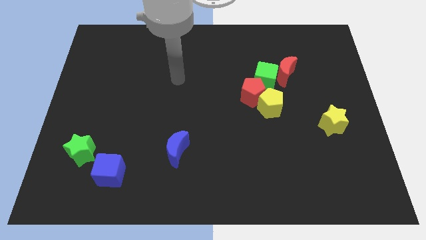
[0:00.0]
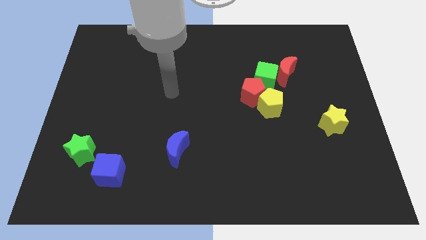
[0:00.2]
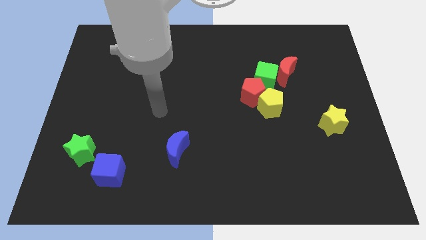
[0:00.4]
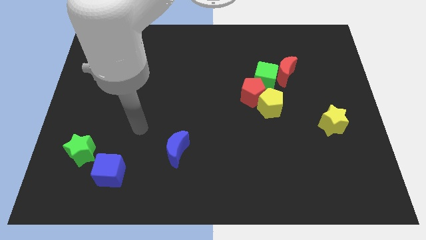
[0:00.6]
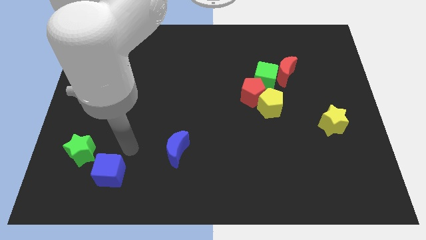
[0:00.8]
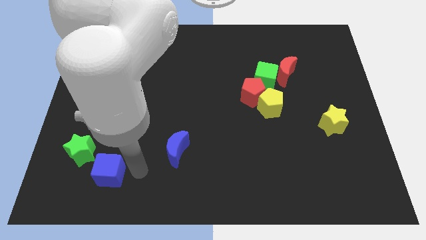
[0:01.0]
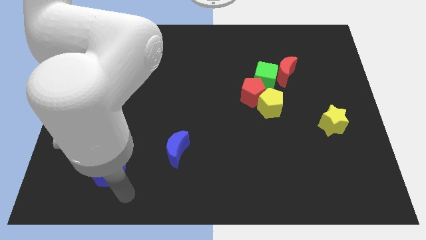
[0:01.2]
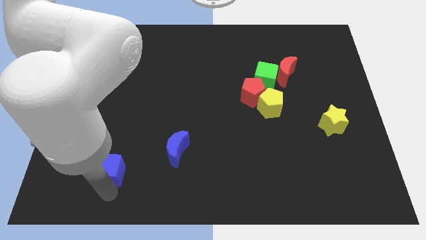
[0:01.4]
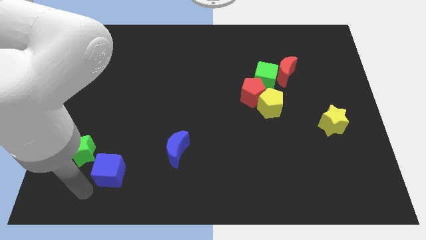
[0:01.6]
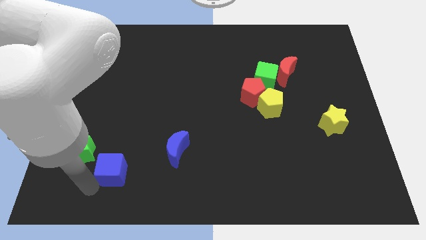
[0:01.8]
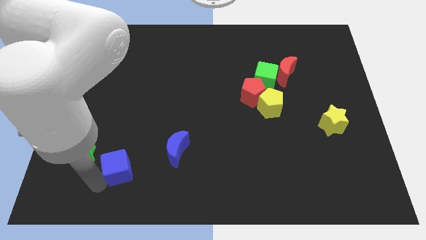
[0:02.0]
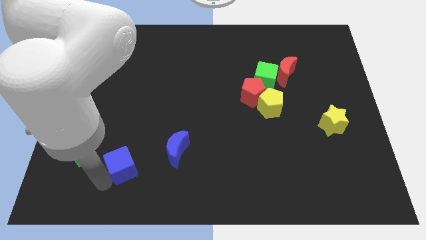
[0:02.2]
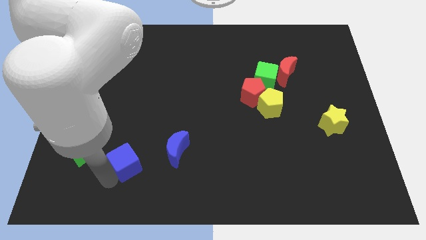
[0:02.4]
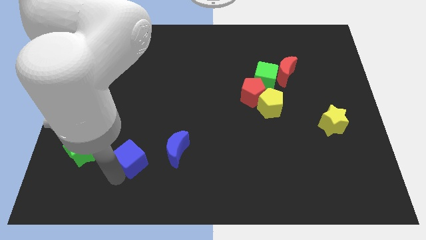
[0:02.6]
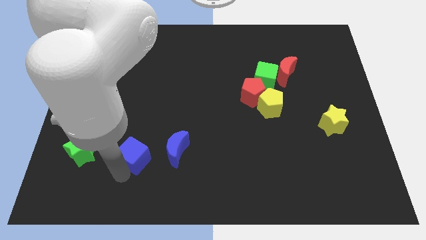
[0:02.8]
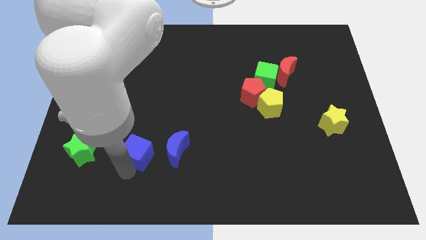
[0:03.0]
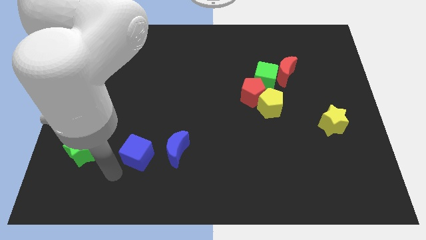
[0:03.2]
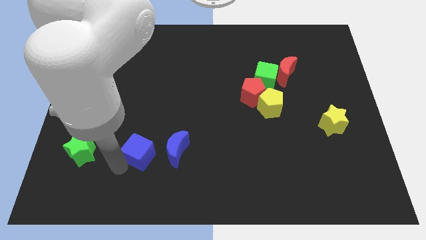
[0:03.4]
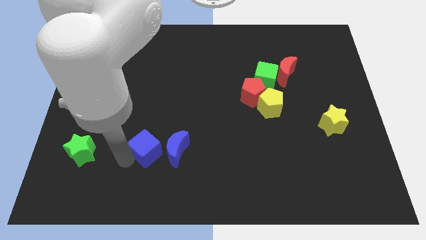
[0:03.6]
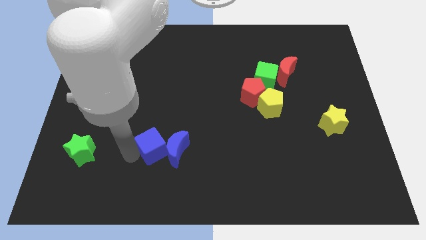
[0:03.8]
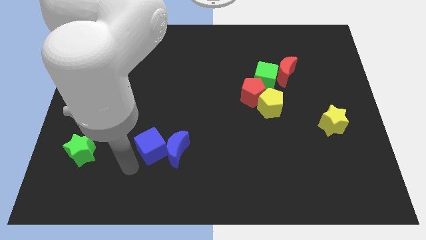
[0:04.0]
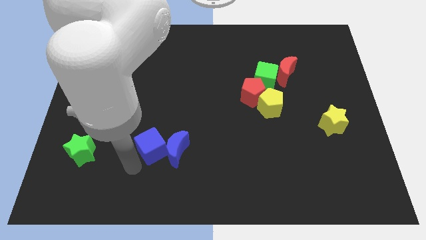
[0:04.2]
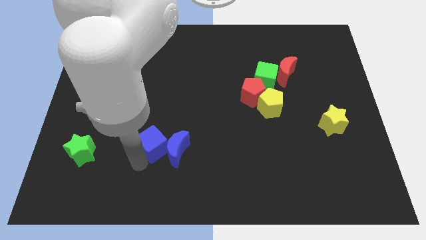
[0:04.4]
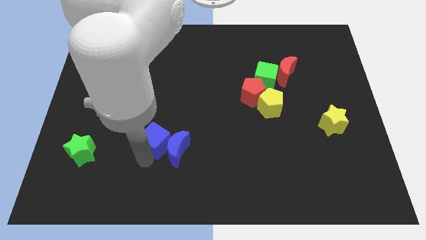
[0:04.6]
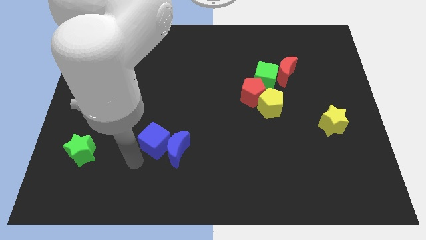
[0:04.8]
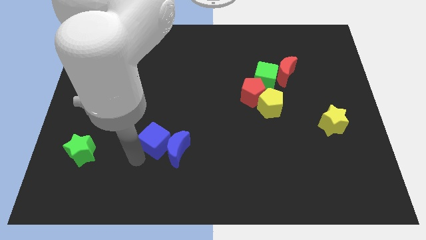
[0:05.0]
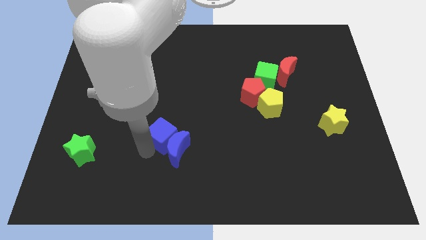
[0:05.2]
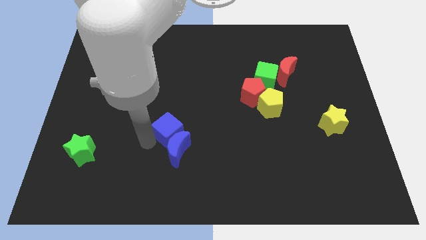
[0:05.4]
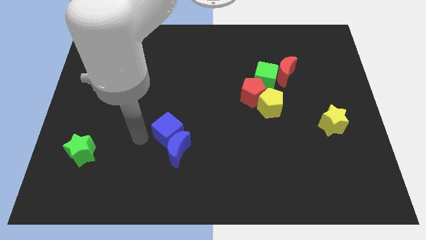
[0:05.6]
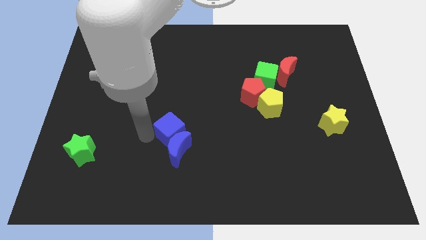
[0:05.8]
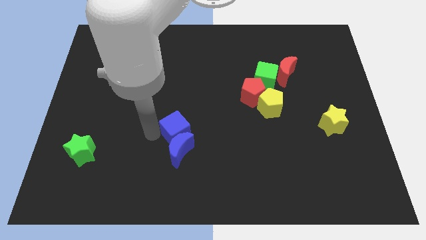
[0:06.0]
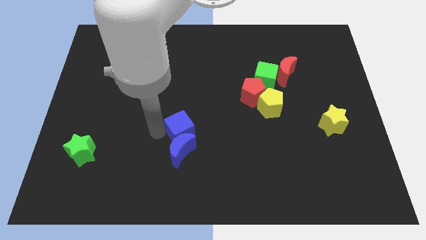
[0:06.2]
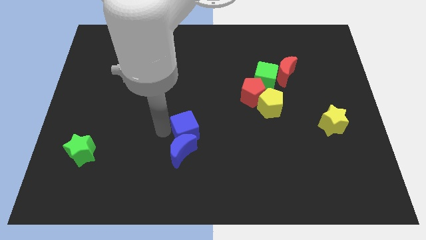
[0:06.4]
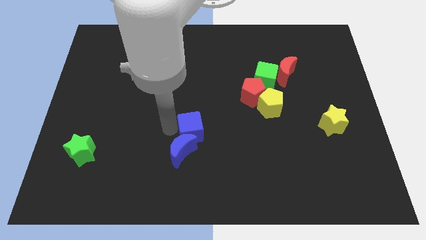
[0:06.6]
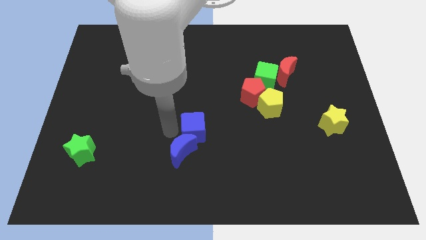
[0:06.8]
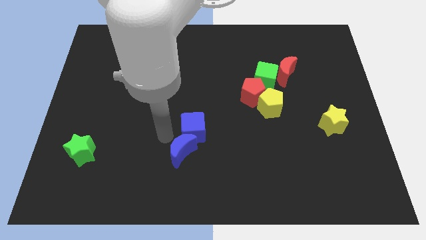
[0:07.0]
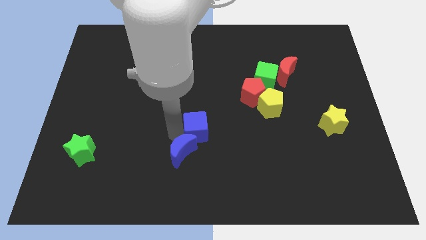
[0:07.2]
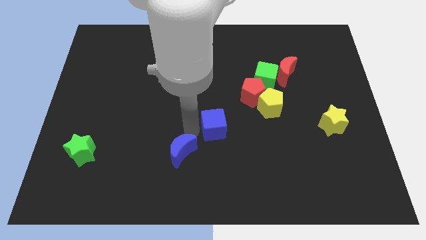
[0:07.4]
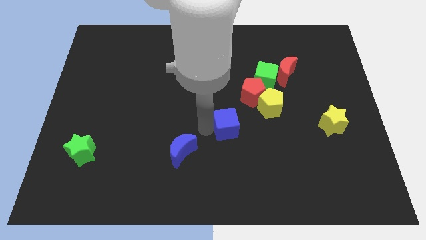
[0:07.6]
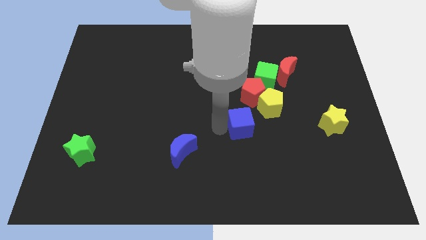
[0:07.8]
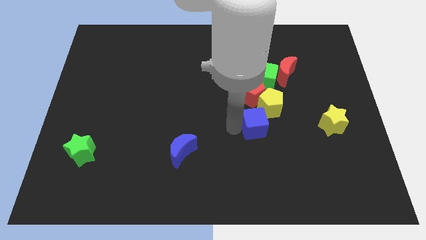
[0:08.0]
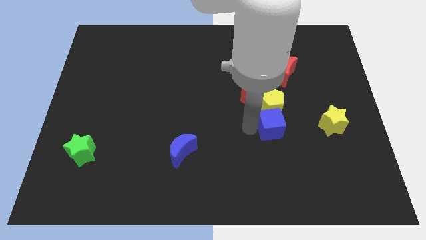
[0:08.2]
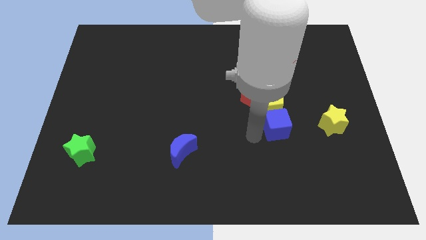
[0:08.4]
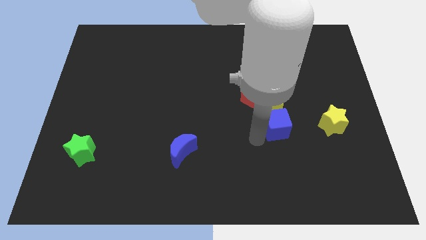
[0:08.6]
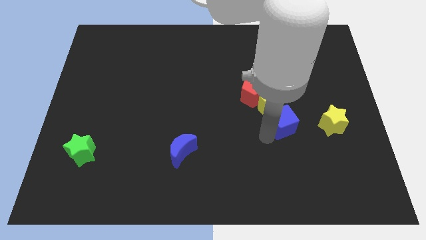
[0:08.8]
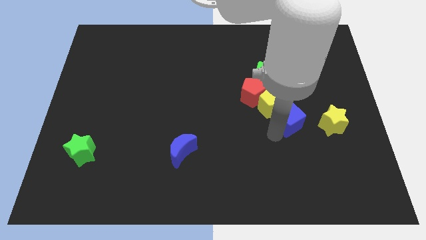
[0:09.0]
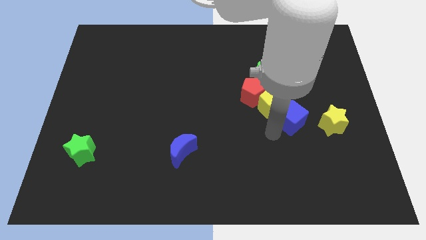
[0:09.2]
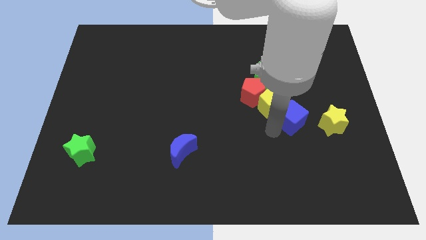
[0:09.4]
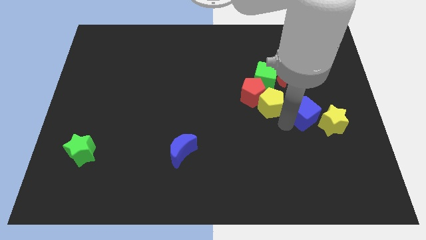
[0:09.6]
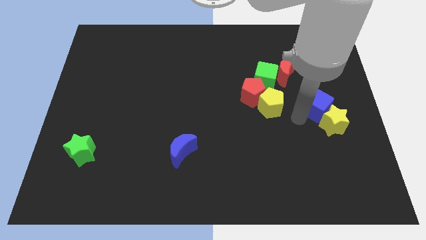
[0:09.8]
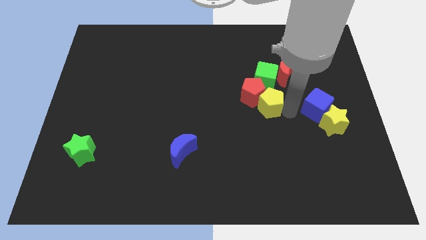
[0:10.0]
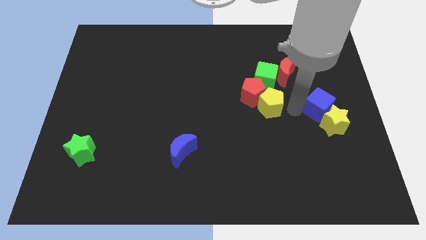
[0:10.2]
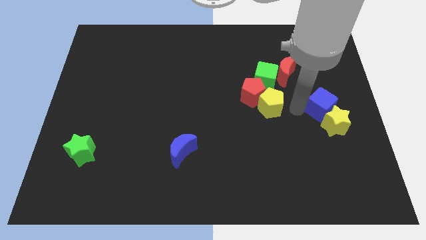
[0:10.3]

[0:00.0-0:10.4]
slide the blue cube to the right side of the board

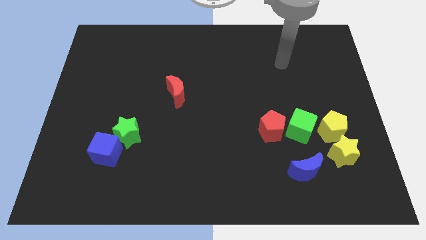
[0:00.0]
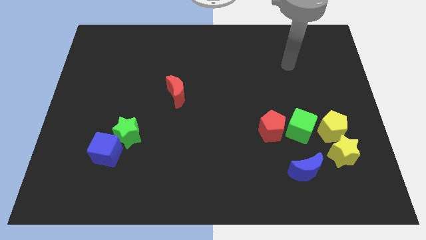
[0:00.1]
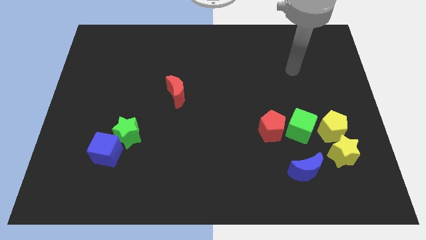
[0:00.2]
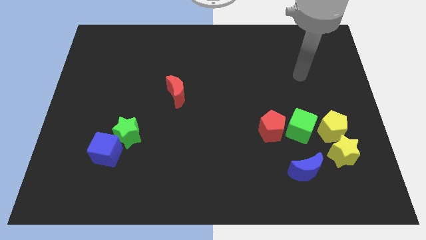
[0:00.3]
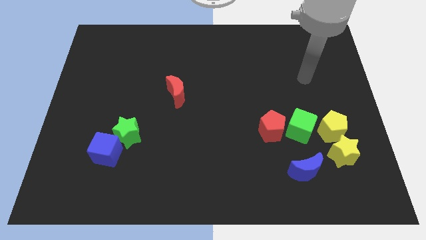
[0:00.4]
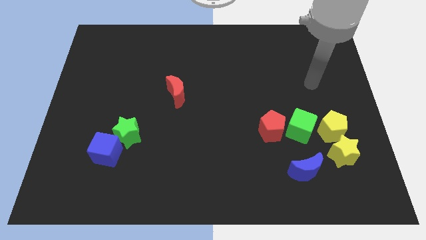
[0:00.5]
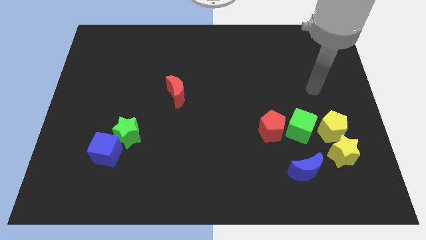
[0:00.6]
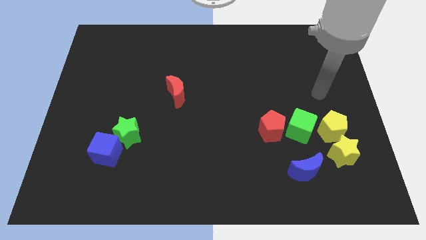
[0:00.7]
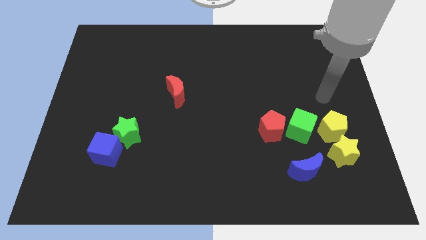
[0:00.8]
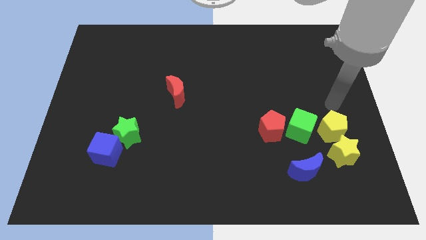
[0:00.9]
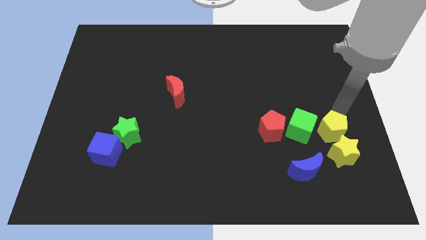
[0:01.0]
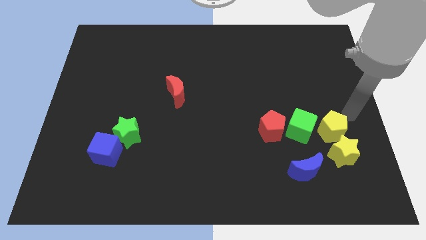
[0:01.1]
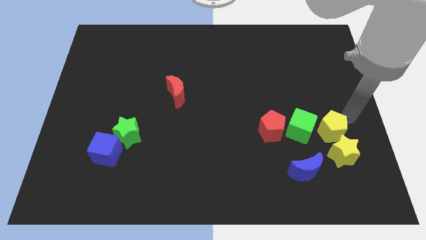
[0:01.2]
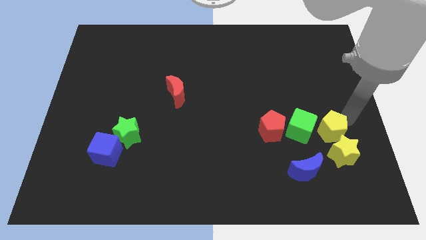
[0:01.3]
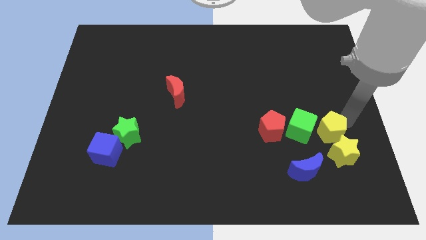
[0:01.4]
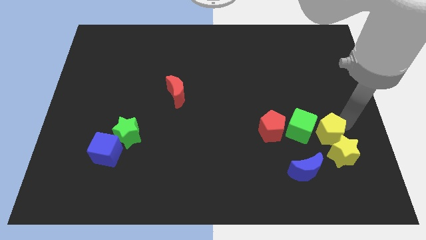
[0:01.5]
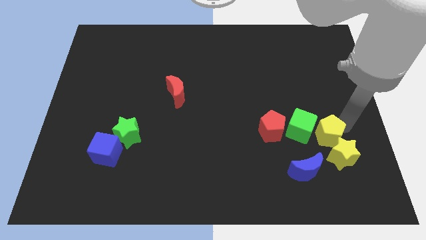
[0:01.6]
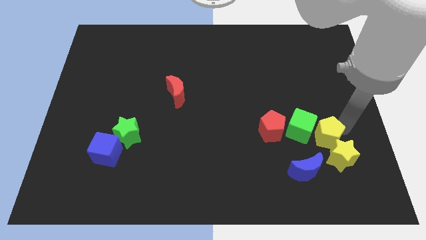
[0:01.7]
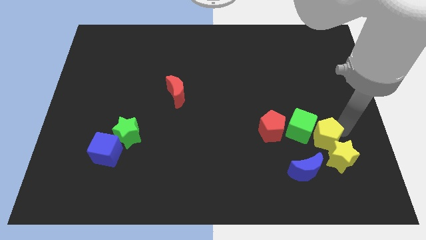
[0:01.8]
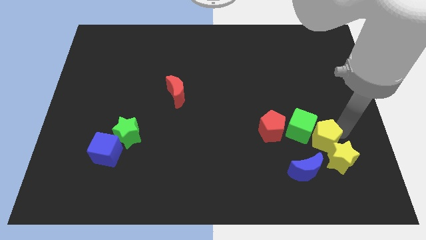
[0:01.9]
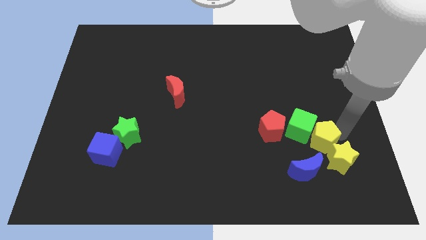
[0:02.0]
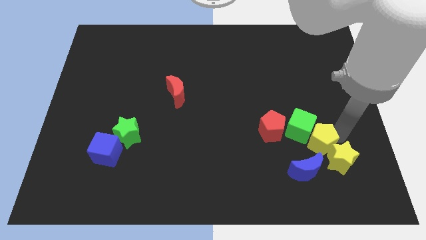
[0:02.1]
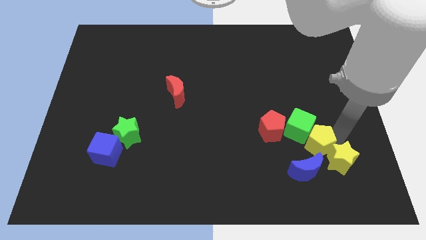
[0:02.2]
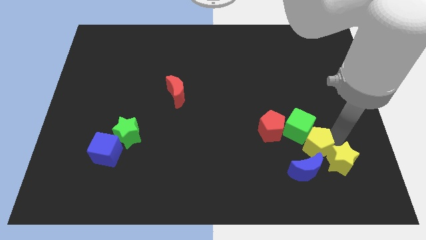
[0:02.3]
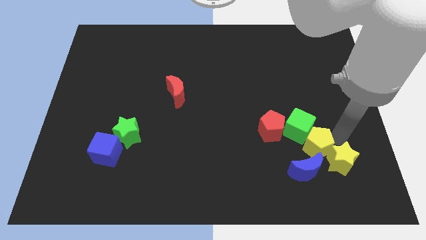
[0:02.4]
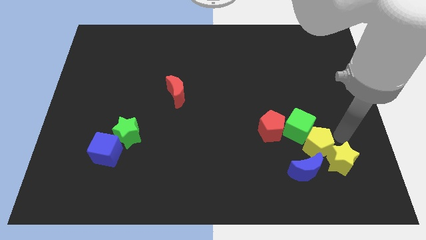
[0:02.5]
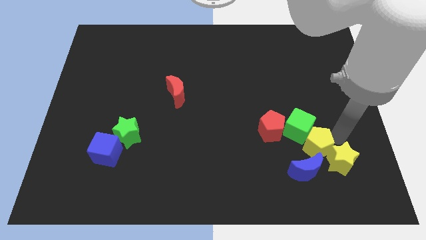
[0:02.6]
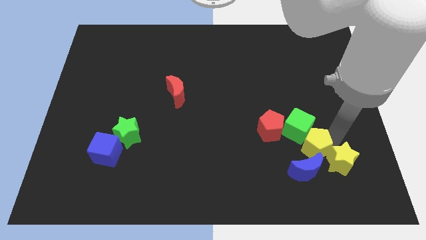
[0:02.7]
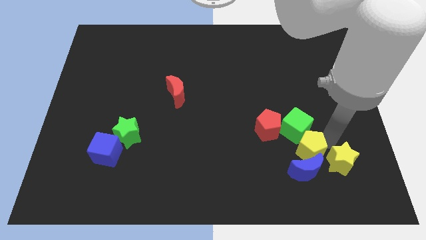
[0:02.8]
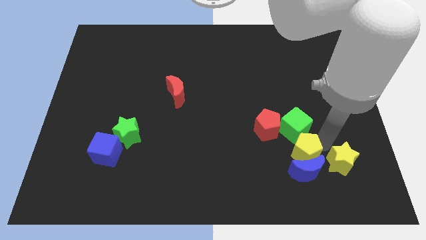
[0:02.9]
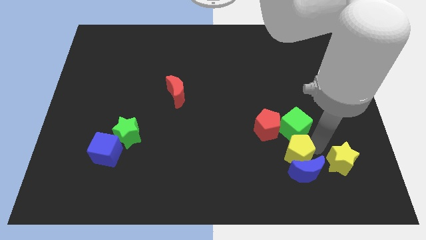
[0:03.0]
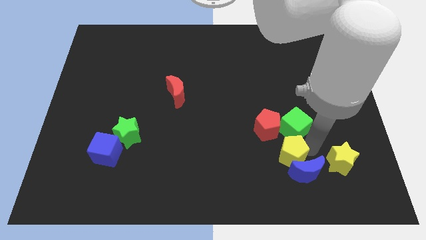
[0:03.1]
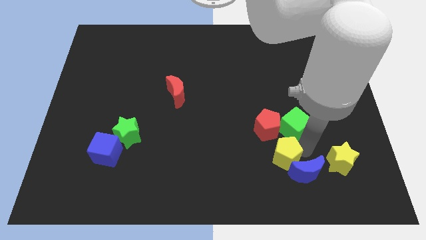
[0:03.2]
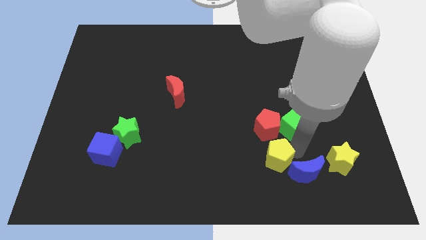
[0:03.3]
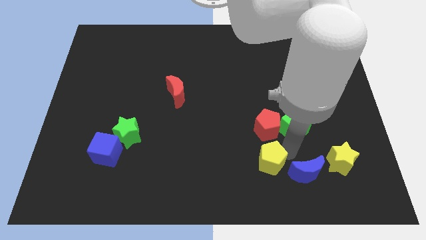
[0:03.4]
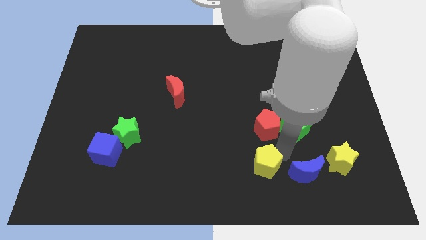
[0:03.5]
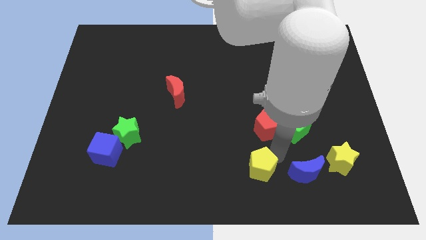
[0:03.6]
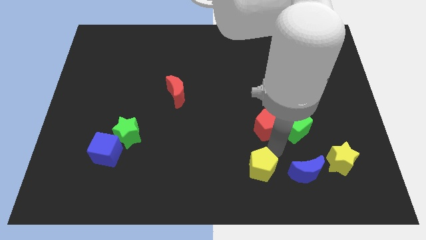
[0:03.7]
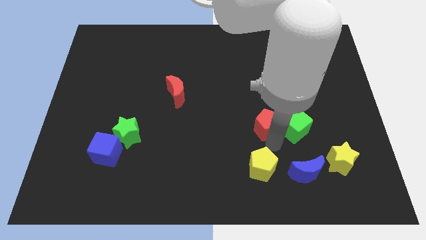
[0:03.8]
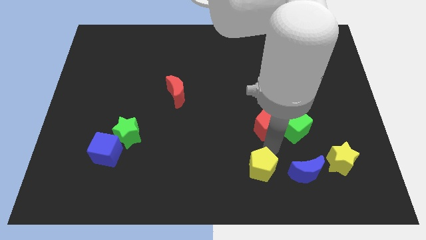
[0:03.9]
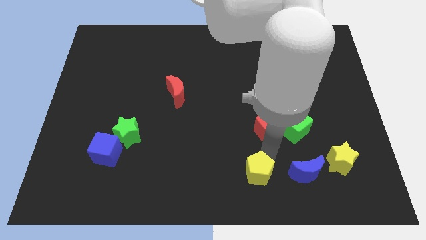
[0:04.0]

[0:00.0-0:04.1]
push the yellow pentagon to the bottom side
